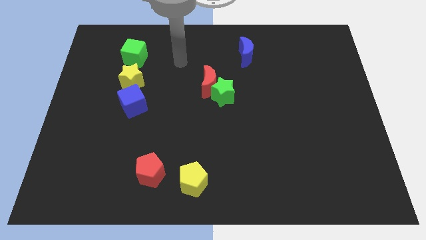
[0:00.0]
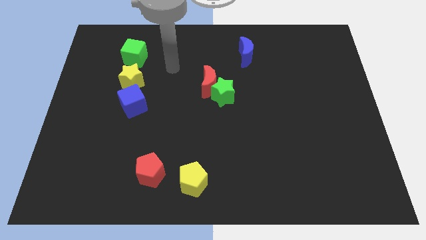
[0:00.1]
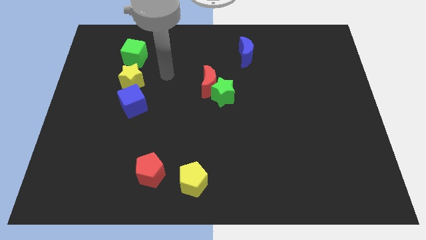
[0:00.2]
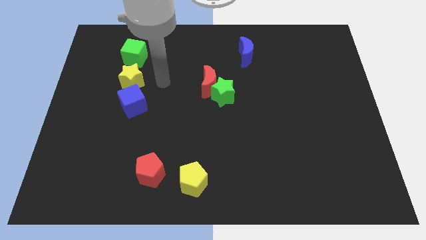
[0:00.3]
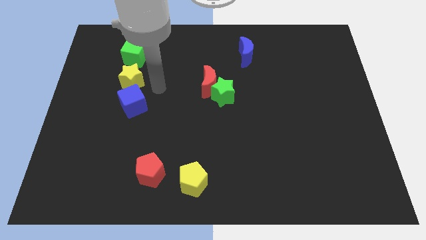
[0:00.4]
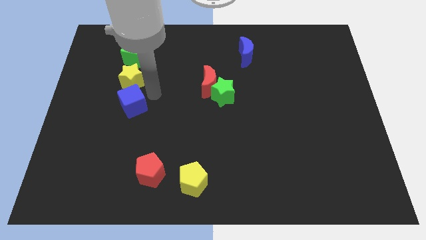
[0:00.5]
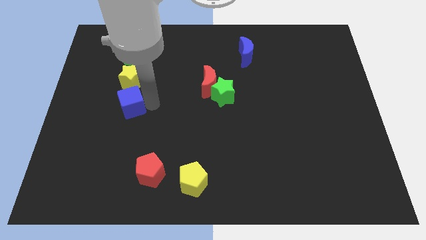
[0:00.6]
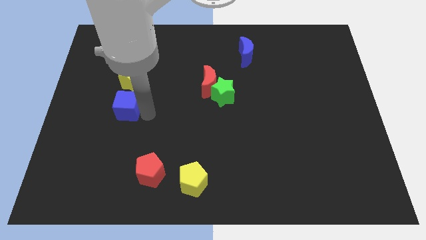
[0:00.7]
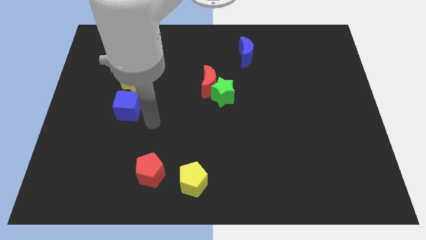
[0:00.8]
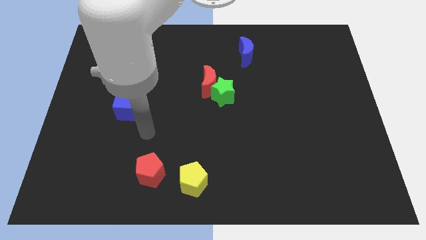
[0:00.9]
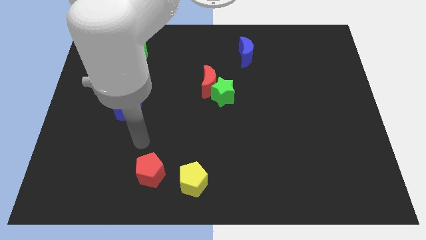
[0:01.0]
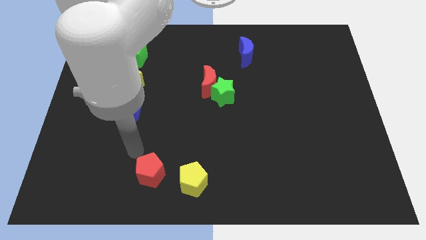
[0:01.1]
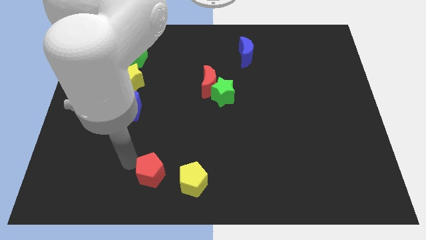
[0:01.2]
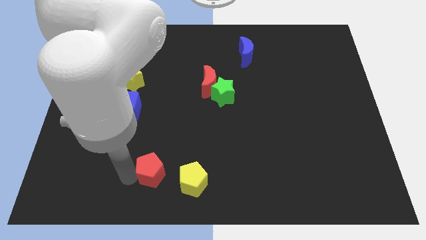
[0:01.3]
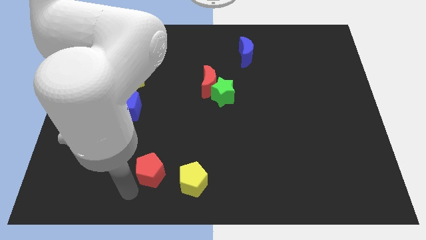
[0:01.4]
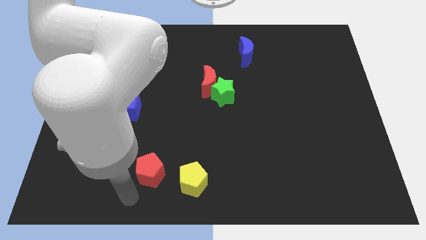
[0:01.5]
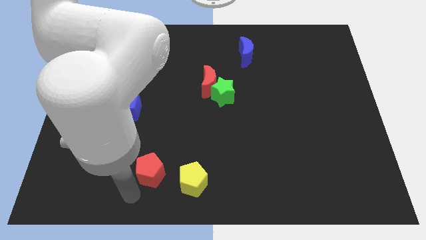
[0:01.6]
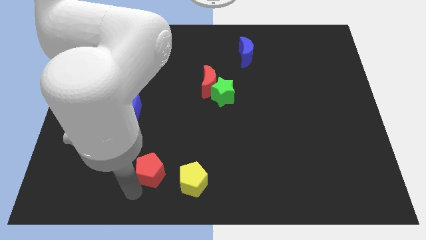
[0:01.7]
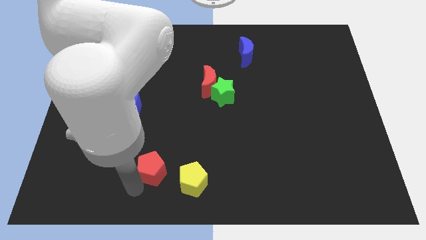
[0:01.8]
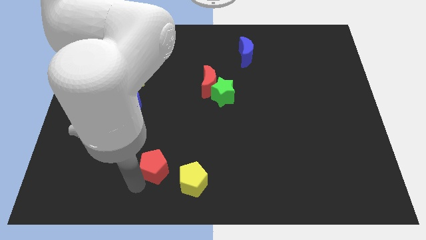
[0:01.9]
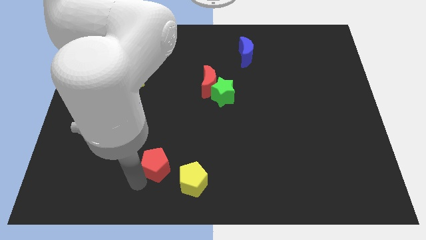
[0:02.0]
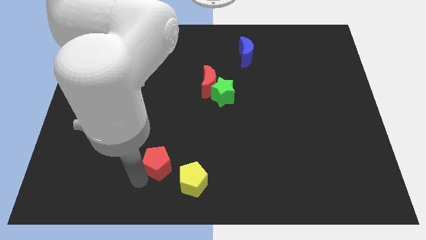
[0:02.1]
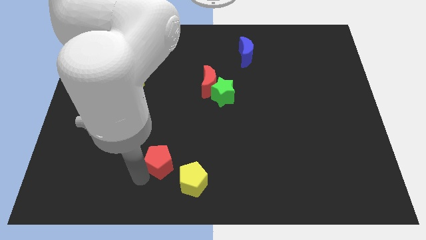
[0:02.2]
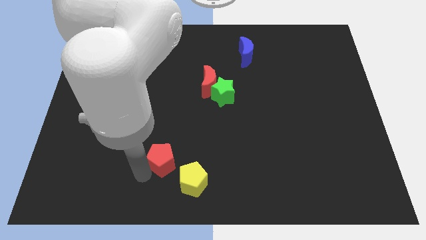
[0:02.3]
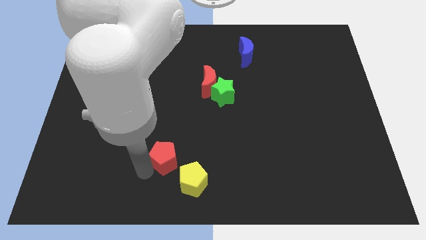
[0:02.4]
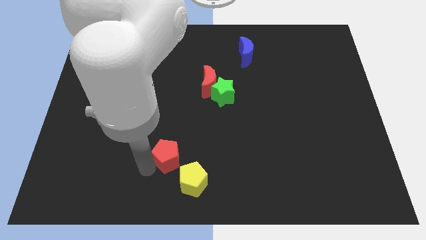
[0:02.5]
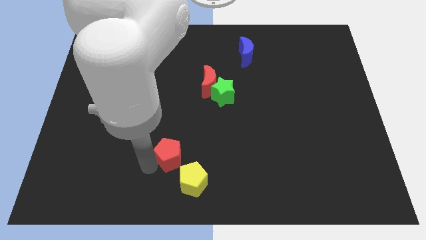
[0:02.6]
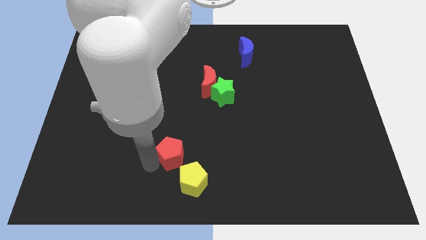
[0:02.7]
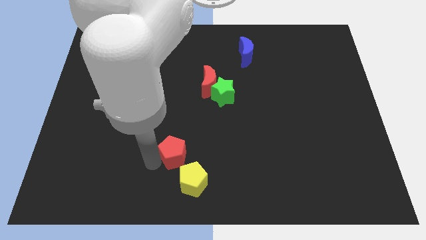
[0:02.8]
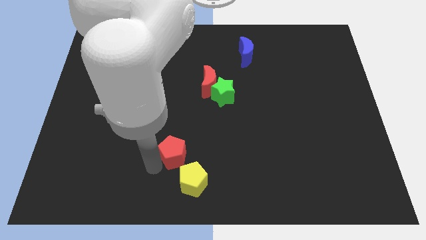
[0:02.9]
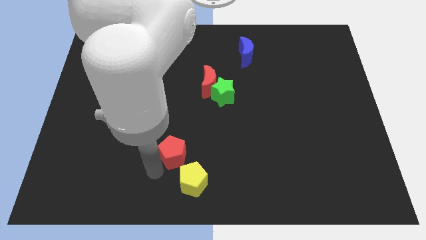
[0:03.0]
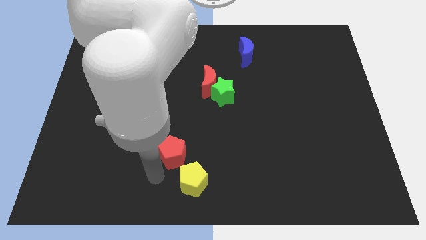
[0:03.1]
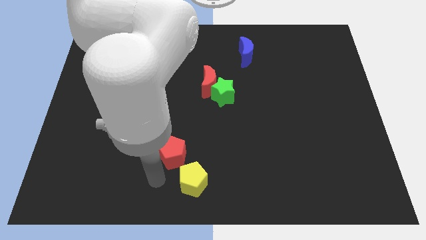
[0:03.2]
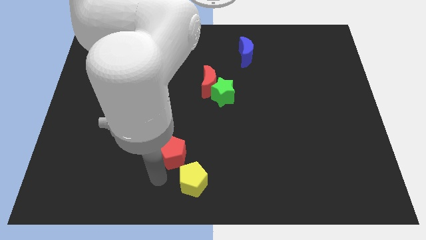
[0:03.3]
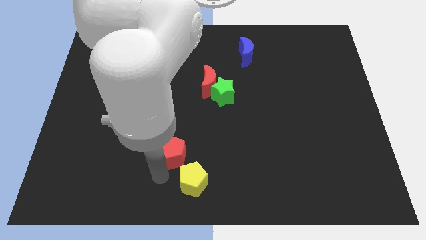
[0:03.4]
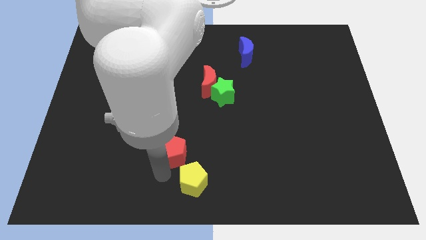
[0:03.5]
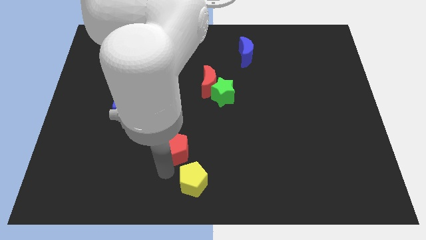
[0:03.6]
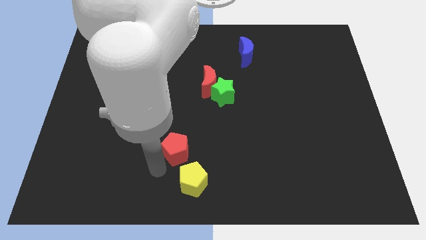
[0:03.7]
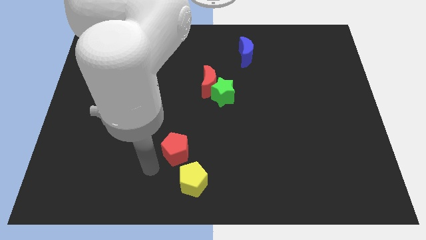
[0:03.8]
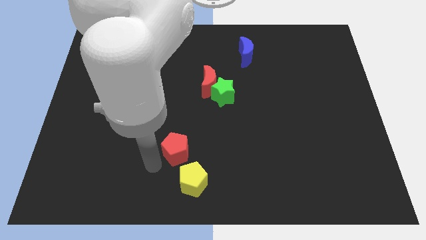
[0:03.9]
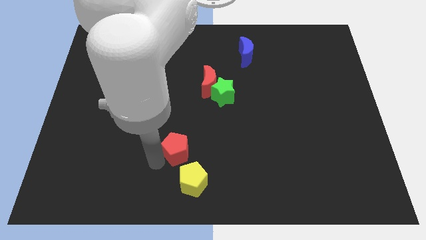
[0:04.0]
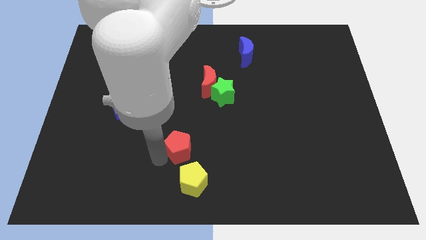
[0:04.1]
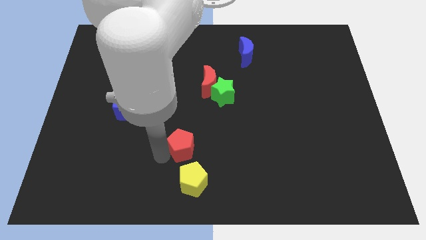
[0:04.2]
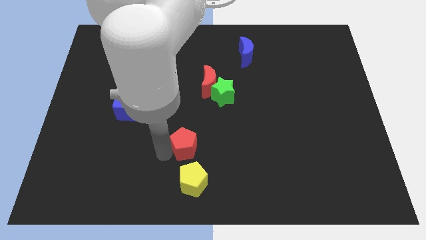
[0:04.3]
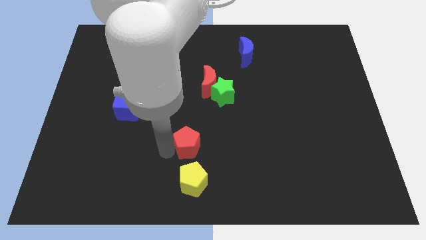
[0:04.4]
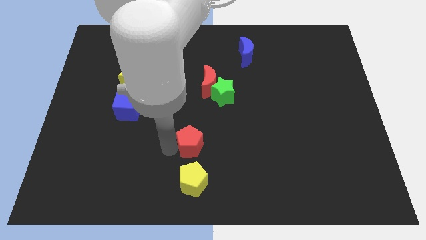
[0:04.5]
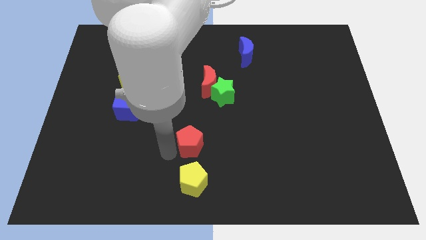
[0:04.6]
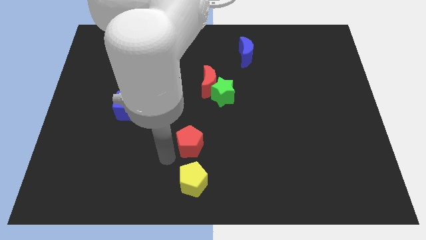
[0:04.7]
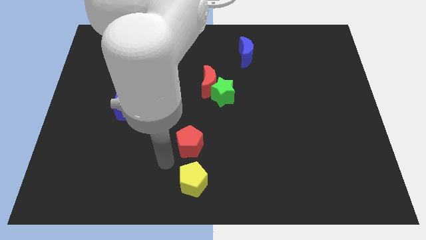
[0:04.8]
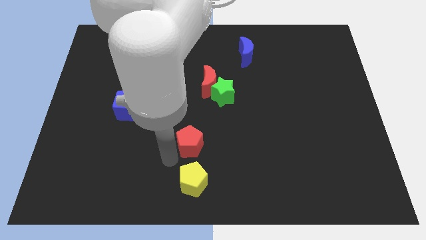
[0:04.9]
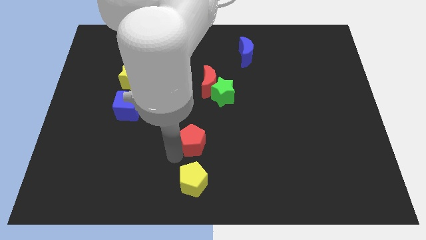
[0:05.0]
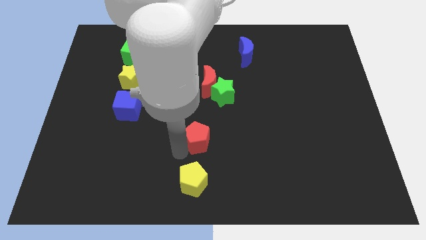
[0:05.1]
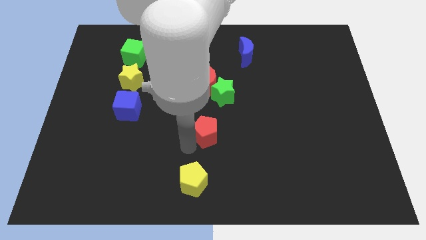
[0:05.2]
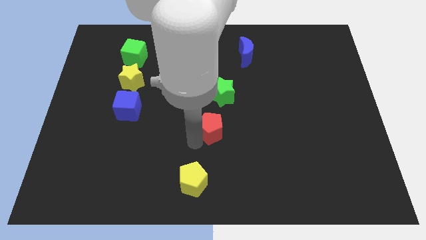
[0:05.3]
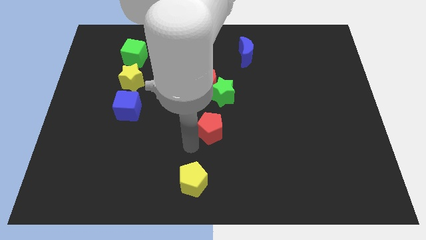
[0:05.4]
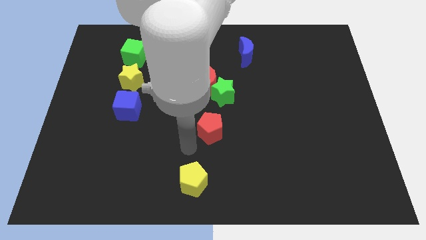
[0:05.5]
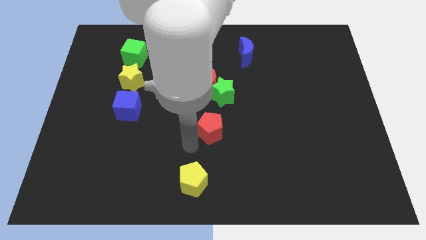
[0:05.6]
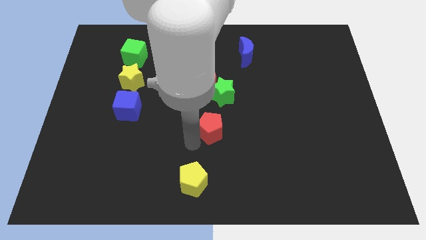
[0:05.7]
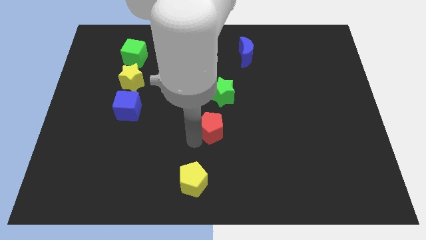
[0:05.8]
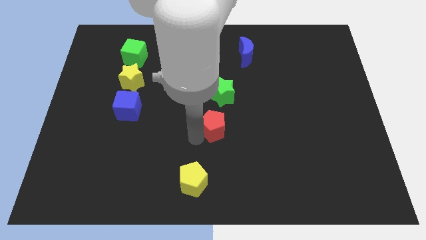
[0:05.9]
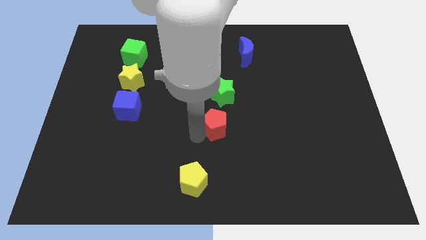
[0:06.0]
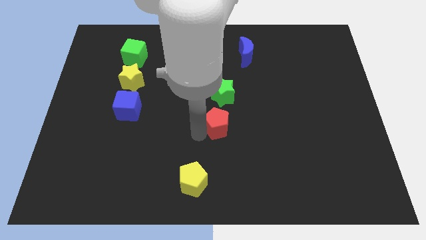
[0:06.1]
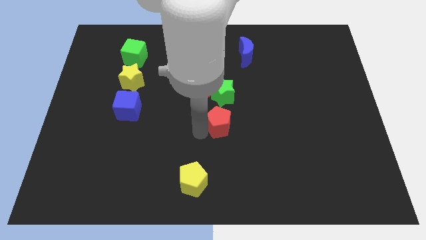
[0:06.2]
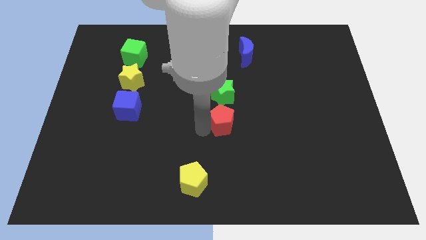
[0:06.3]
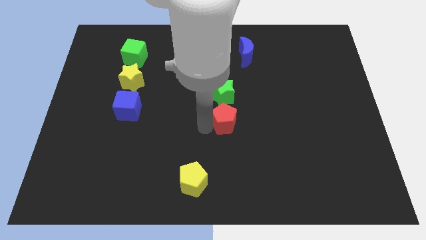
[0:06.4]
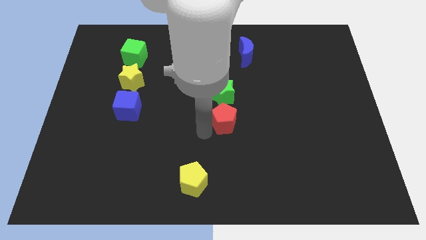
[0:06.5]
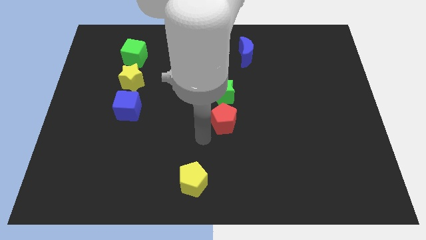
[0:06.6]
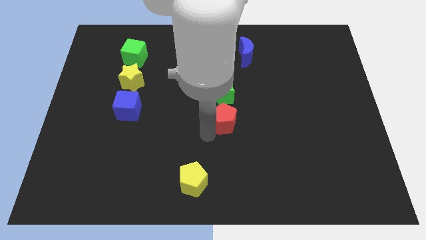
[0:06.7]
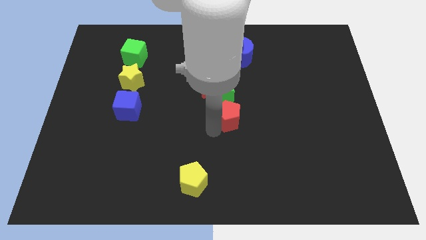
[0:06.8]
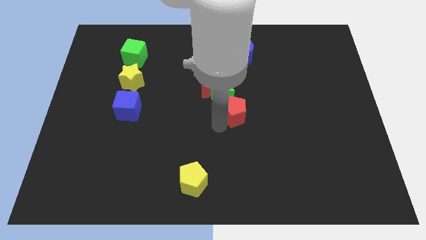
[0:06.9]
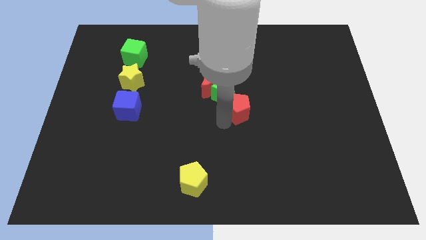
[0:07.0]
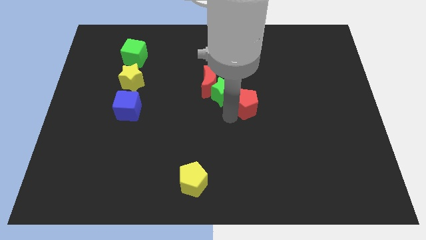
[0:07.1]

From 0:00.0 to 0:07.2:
move the red pentagon right of the green star
